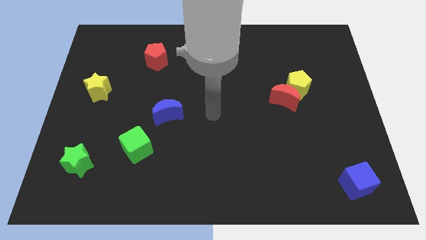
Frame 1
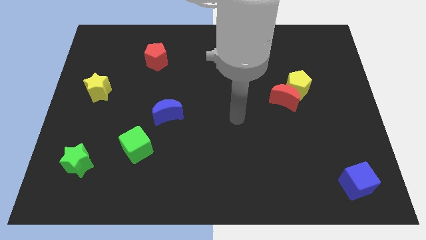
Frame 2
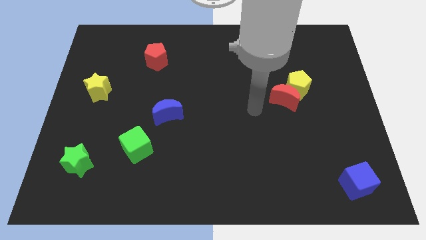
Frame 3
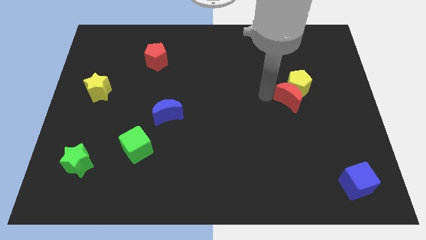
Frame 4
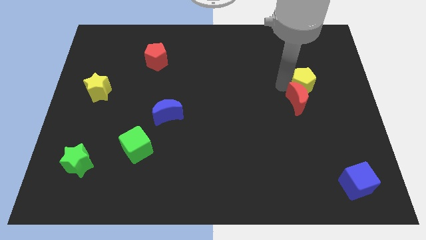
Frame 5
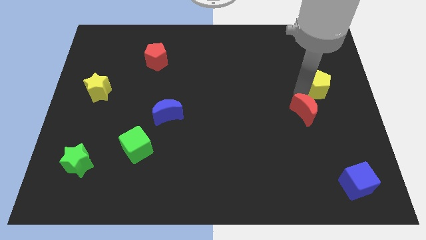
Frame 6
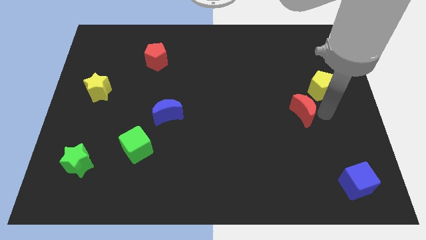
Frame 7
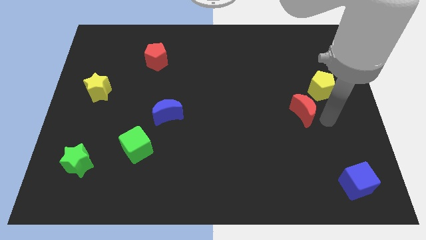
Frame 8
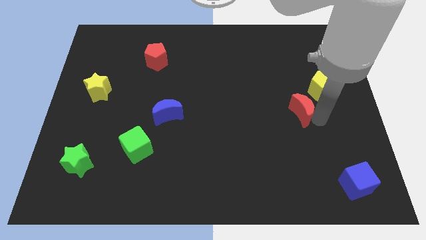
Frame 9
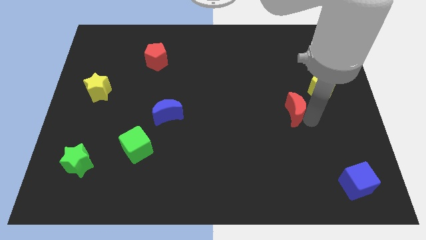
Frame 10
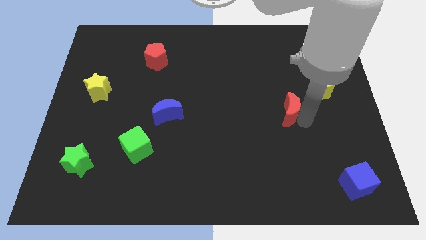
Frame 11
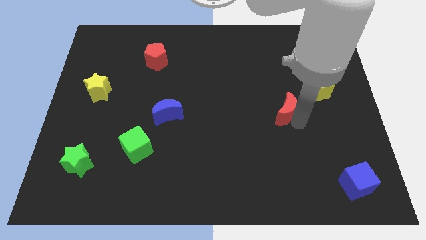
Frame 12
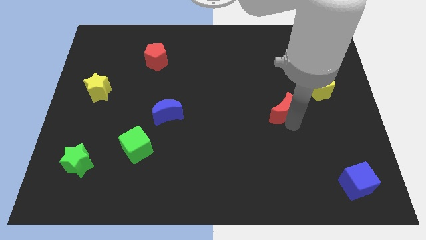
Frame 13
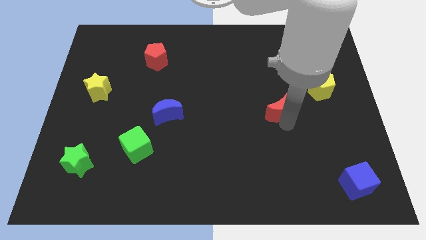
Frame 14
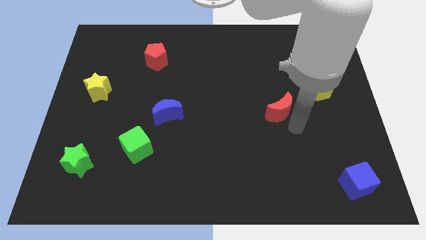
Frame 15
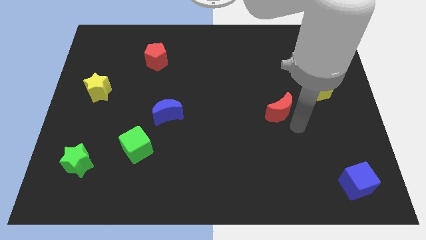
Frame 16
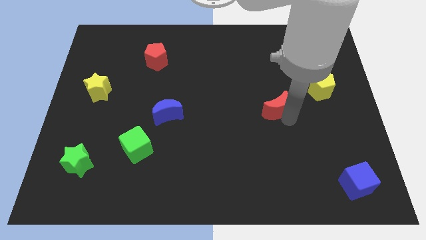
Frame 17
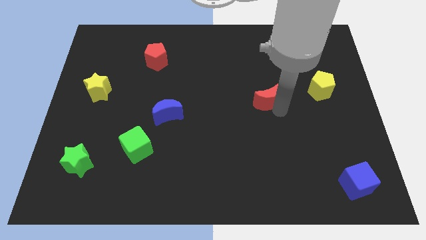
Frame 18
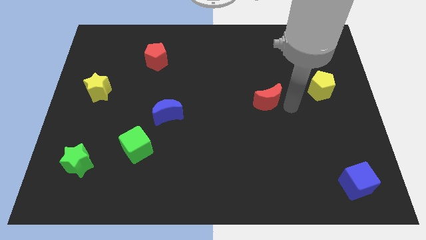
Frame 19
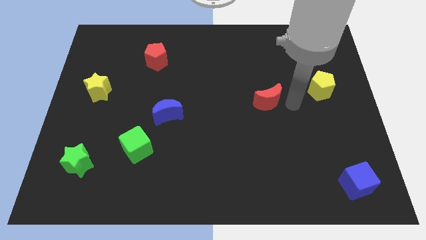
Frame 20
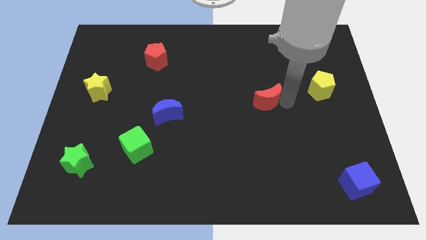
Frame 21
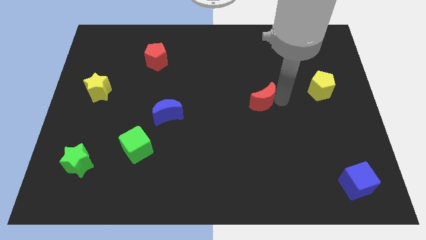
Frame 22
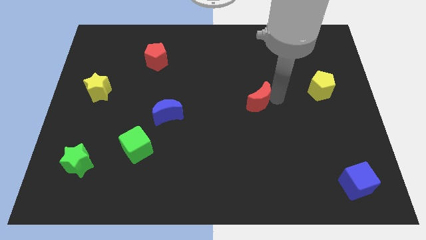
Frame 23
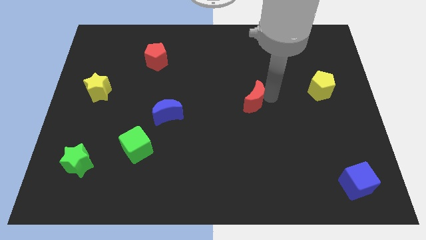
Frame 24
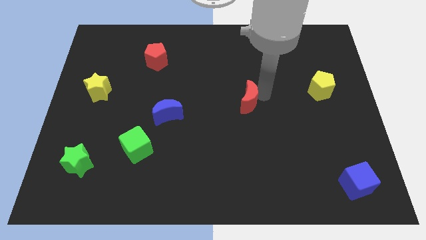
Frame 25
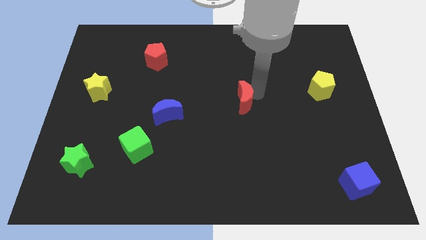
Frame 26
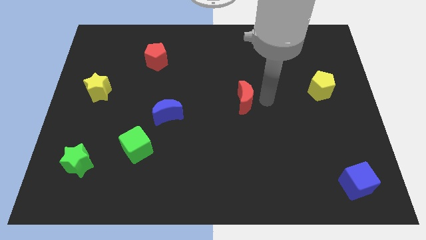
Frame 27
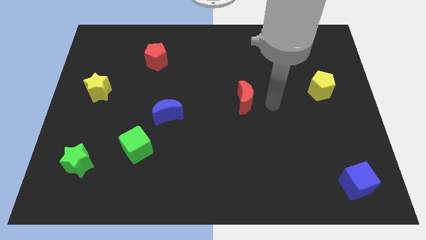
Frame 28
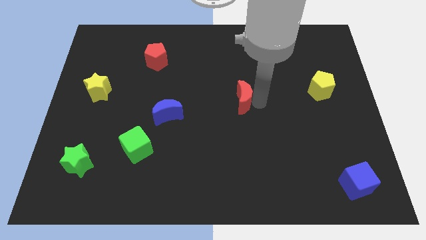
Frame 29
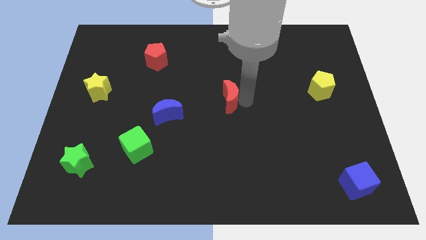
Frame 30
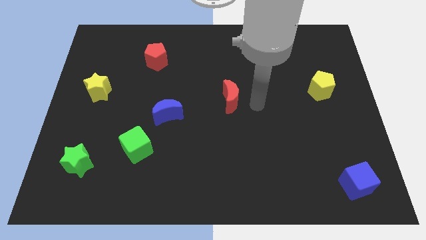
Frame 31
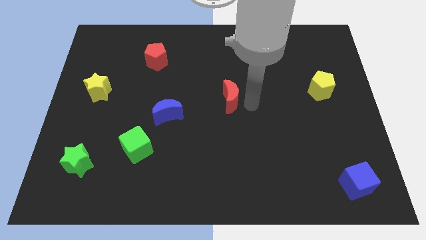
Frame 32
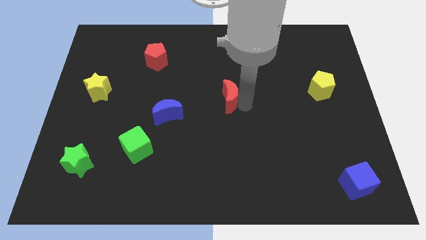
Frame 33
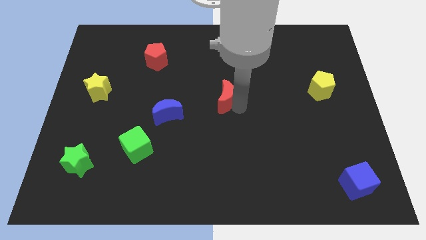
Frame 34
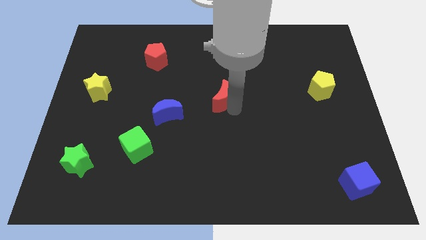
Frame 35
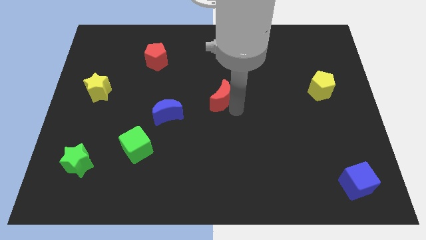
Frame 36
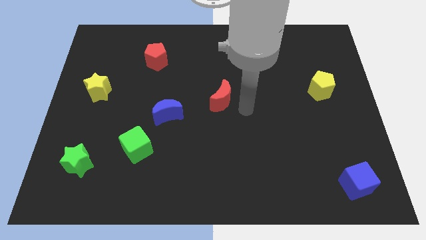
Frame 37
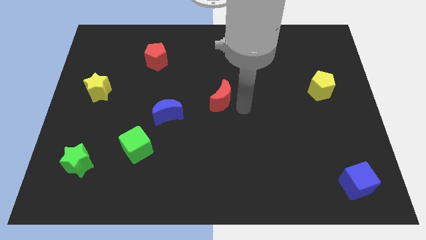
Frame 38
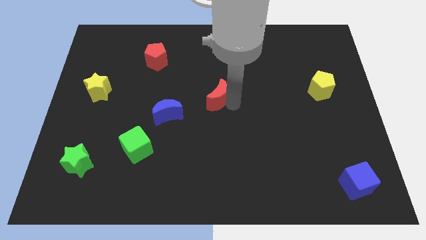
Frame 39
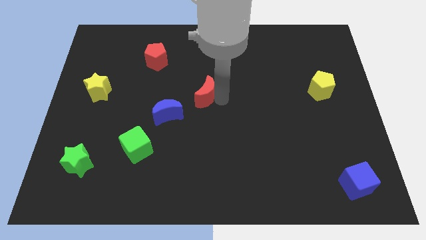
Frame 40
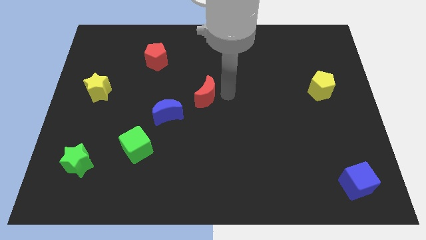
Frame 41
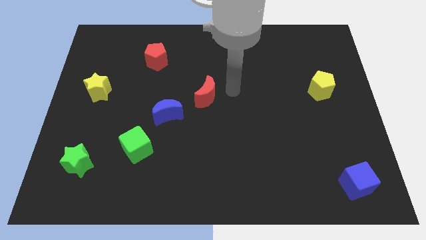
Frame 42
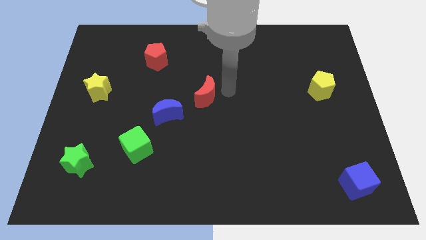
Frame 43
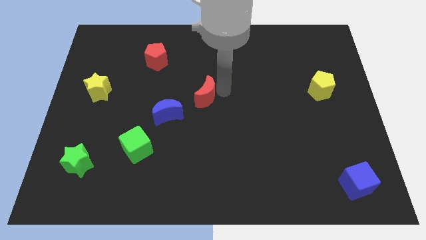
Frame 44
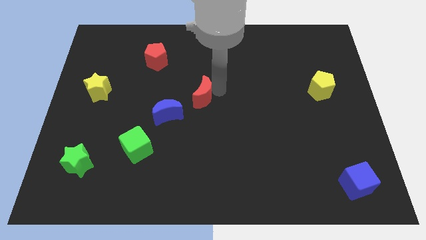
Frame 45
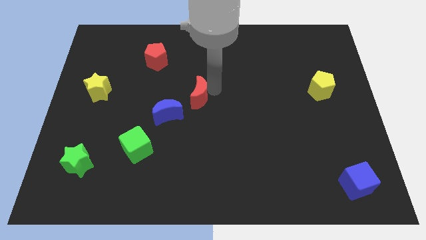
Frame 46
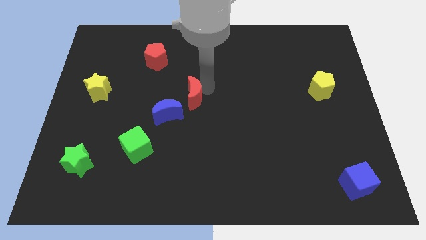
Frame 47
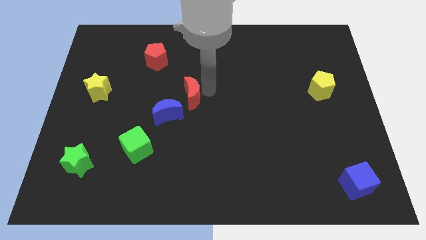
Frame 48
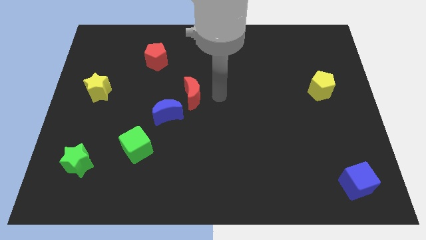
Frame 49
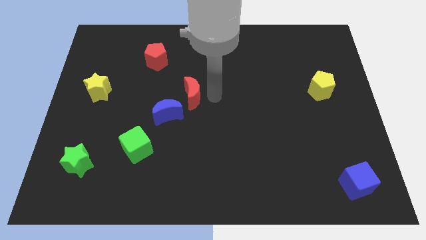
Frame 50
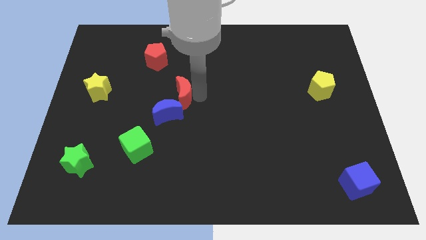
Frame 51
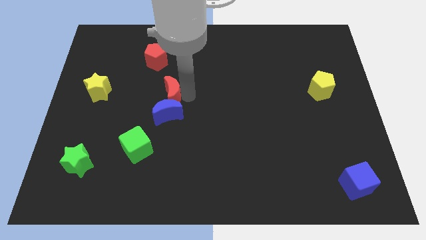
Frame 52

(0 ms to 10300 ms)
move the red moon diagonally up and to the left of the blue moon

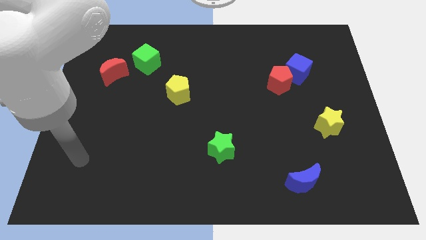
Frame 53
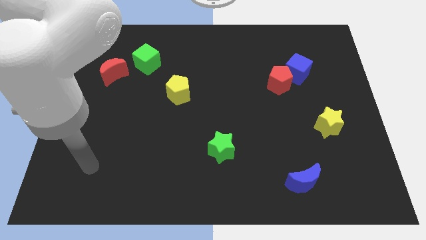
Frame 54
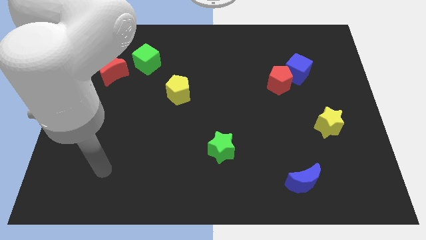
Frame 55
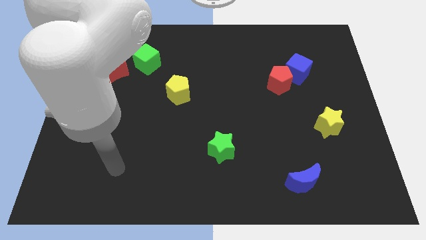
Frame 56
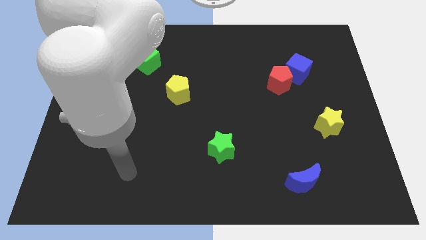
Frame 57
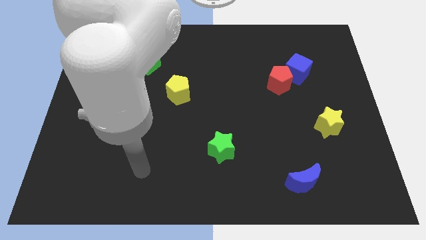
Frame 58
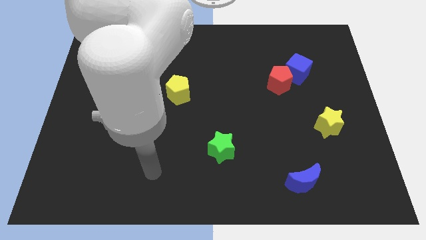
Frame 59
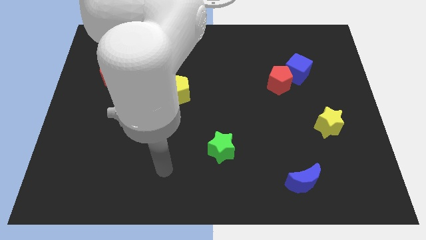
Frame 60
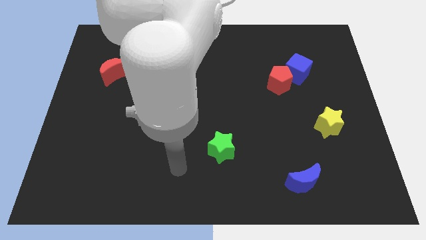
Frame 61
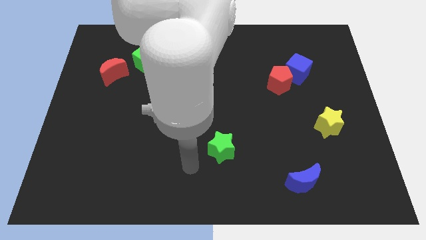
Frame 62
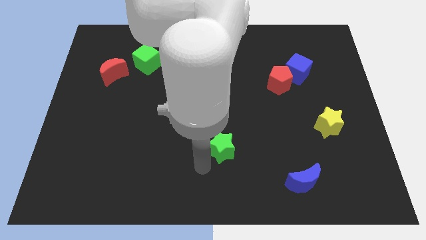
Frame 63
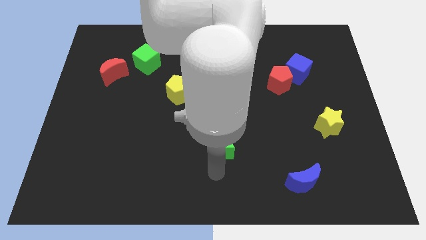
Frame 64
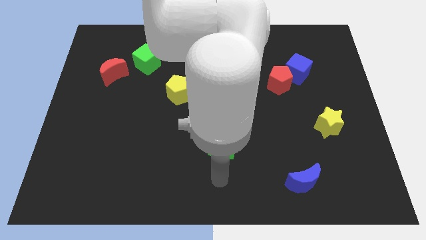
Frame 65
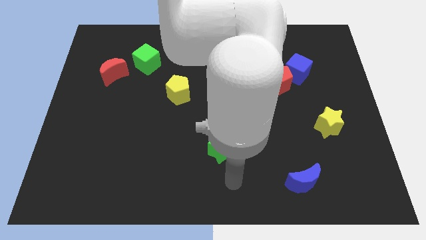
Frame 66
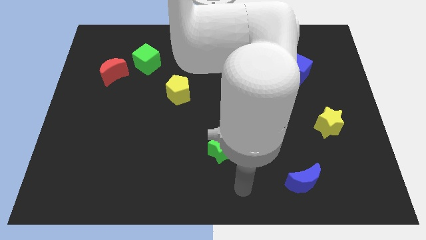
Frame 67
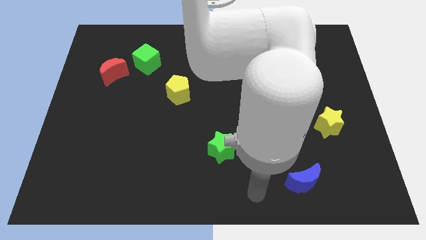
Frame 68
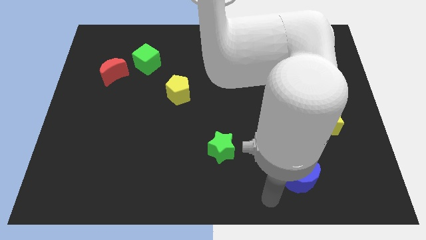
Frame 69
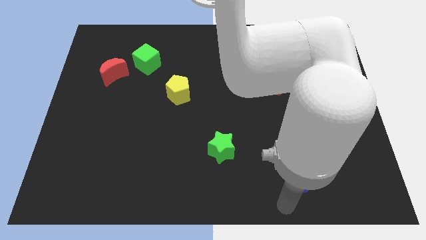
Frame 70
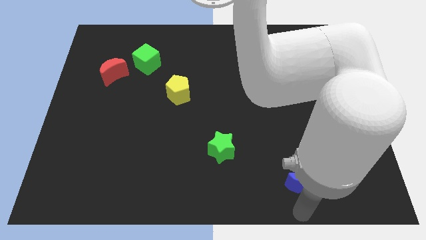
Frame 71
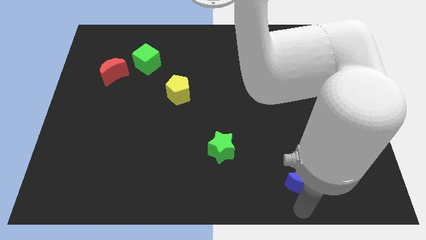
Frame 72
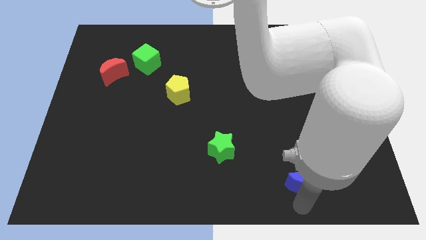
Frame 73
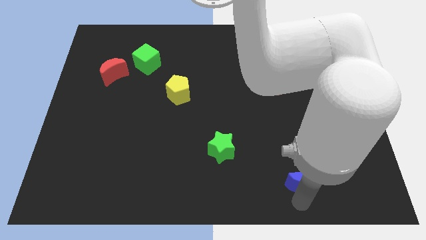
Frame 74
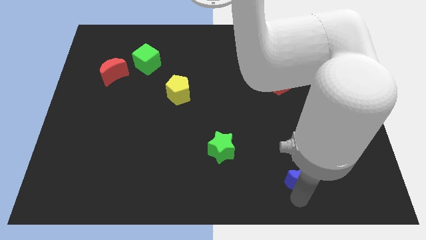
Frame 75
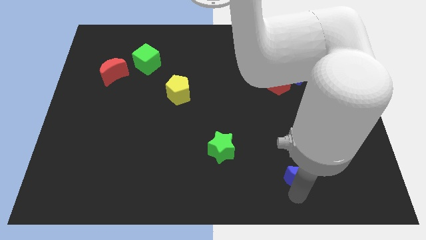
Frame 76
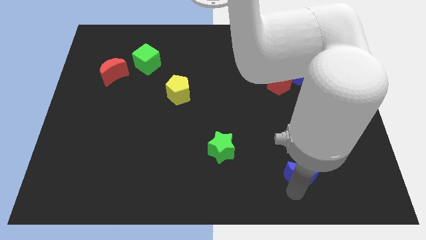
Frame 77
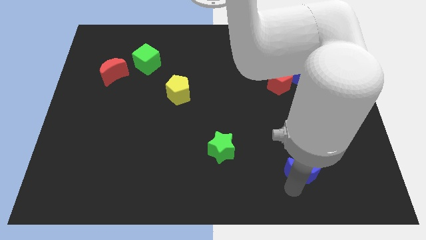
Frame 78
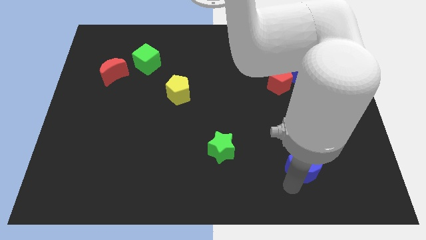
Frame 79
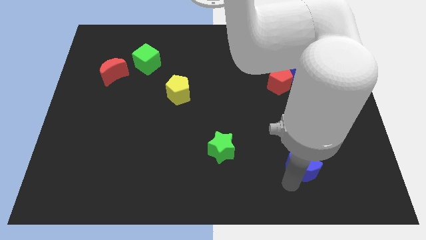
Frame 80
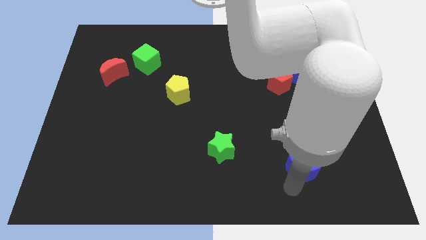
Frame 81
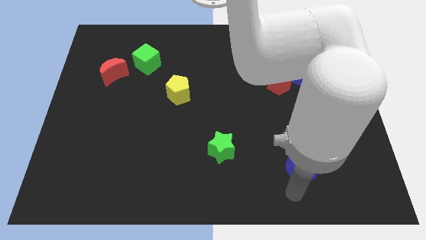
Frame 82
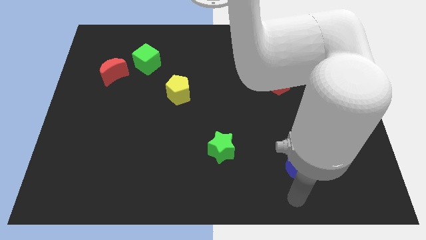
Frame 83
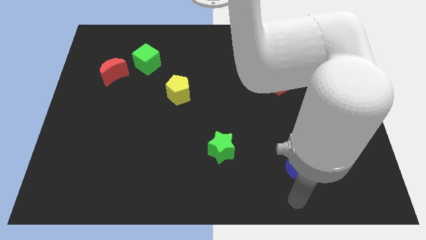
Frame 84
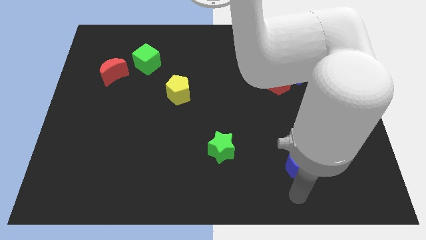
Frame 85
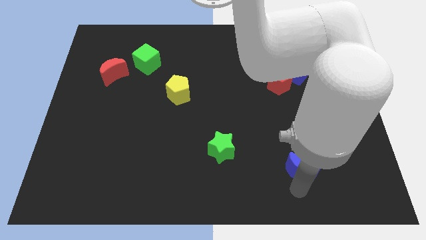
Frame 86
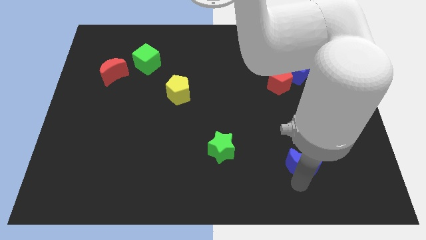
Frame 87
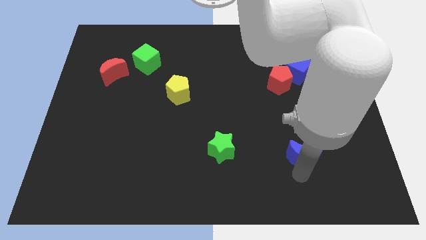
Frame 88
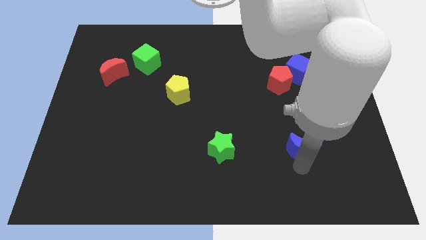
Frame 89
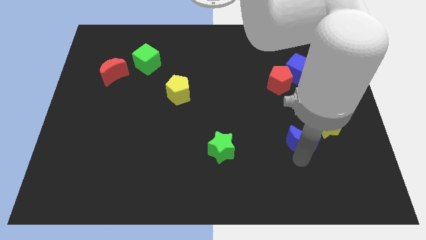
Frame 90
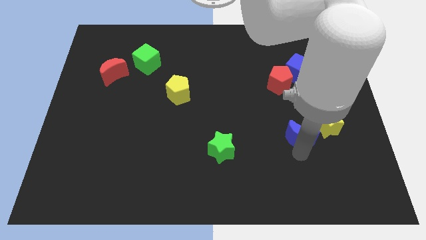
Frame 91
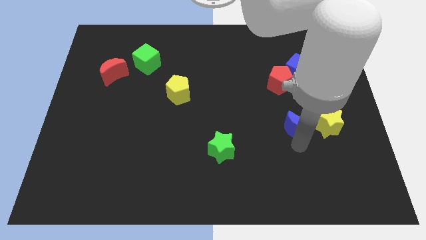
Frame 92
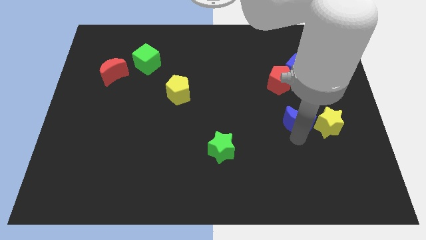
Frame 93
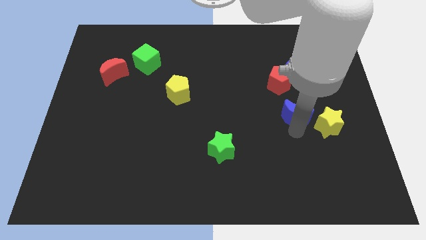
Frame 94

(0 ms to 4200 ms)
move the blue moon to the bottom side of the blue cube
